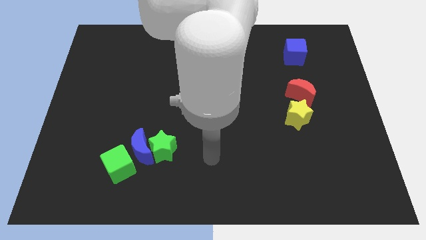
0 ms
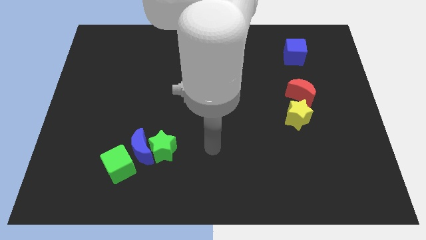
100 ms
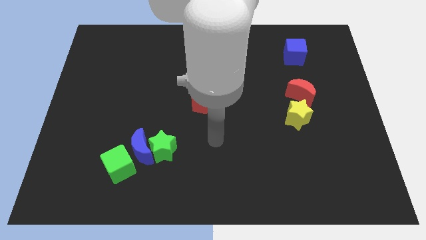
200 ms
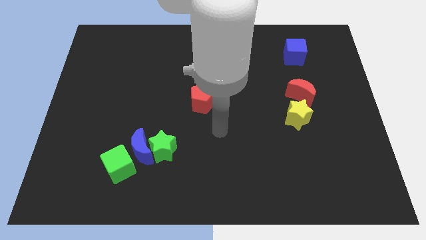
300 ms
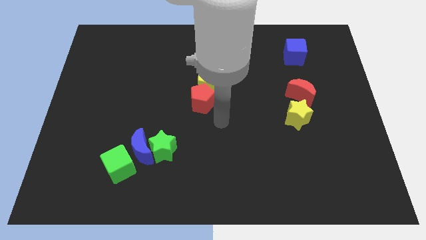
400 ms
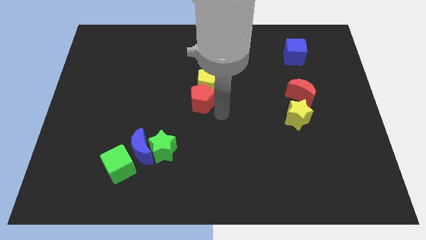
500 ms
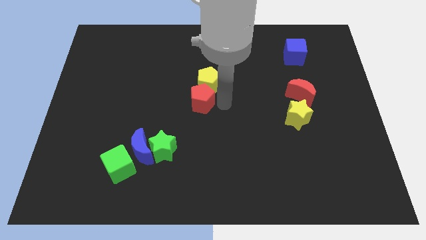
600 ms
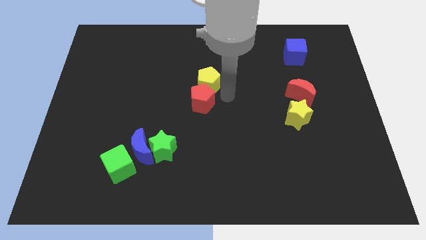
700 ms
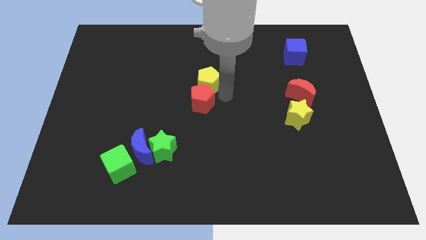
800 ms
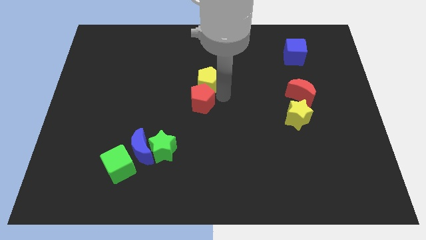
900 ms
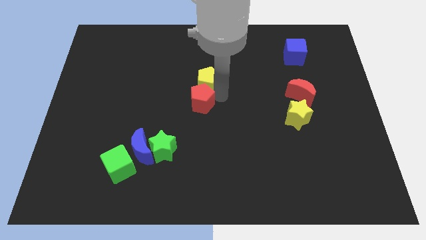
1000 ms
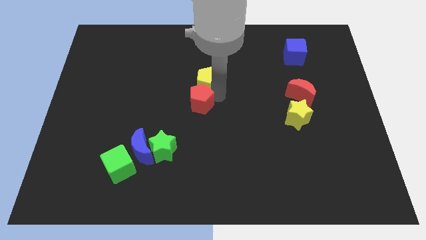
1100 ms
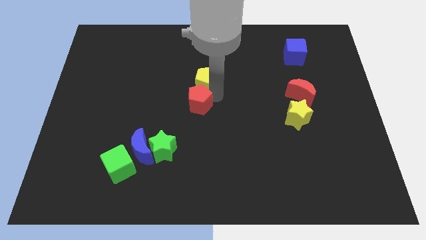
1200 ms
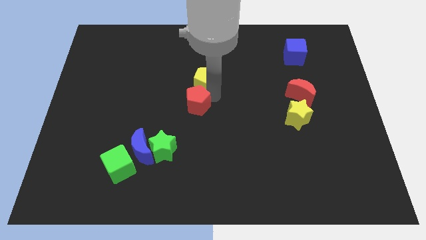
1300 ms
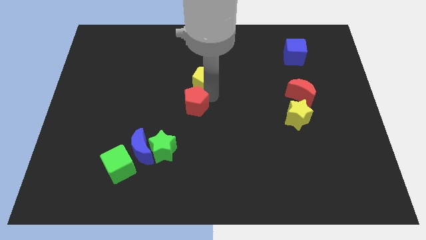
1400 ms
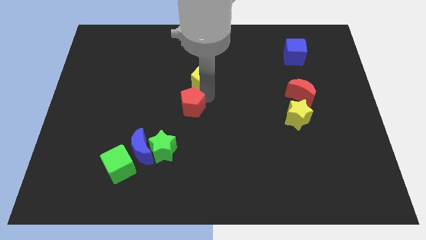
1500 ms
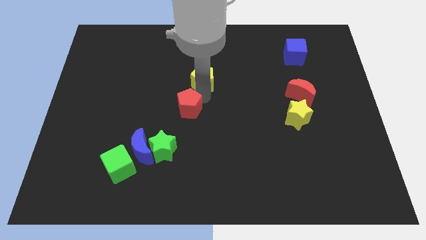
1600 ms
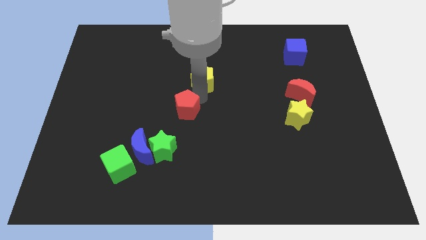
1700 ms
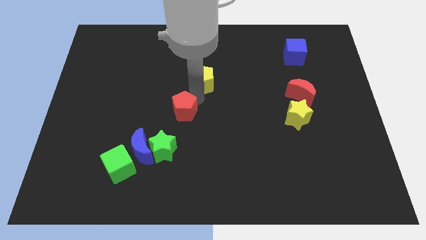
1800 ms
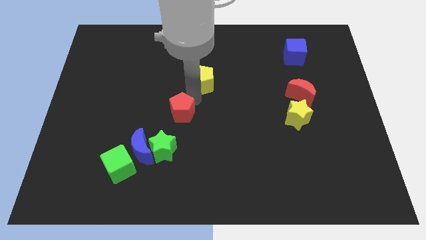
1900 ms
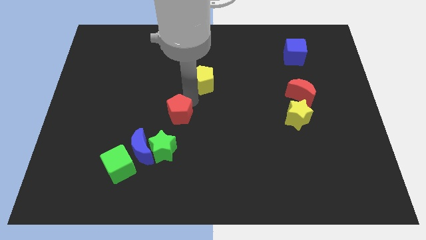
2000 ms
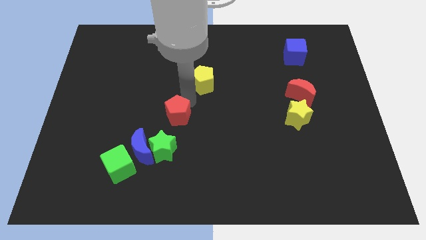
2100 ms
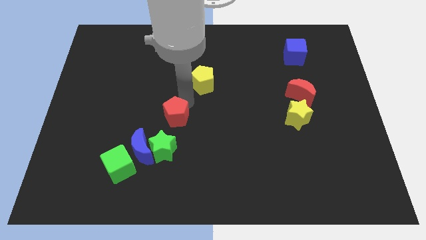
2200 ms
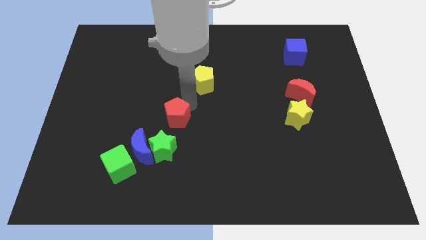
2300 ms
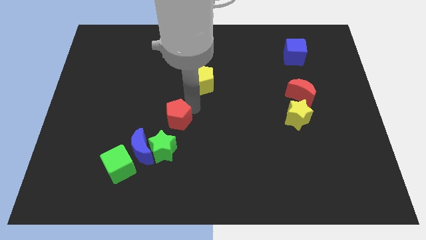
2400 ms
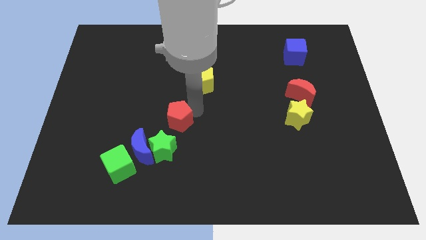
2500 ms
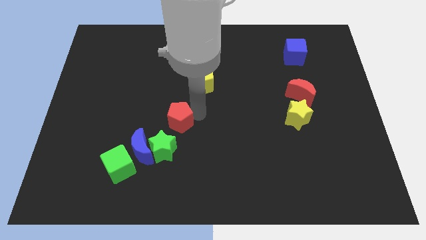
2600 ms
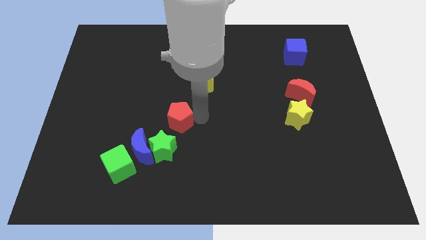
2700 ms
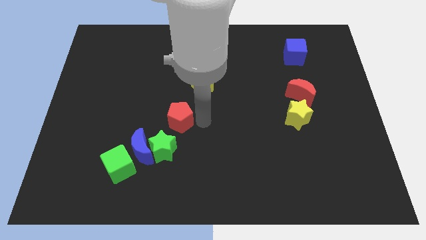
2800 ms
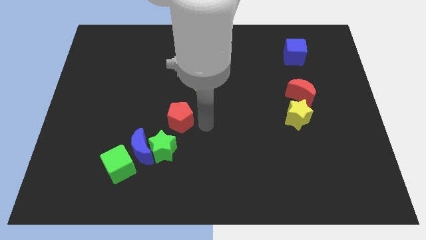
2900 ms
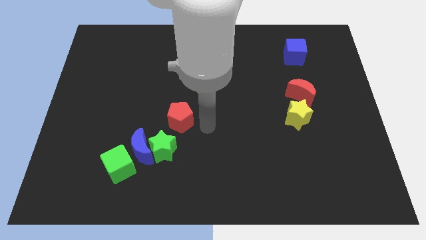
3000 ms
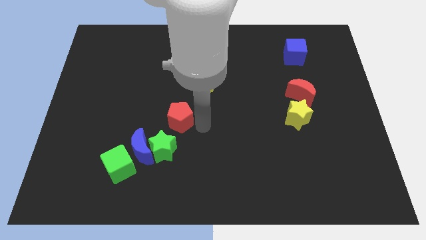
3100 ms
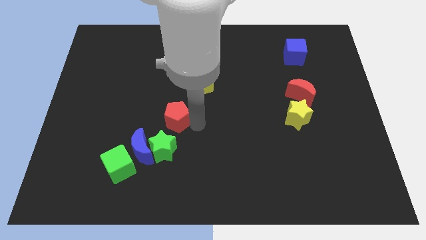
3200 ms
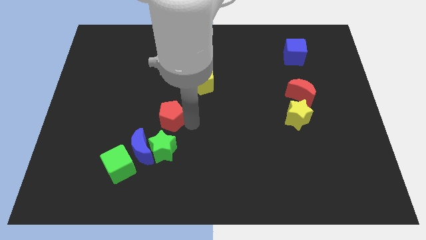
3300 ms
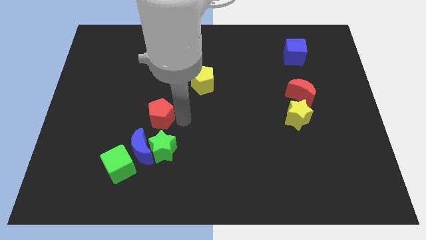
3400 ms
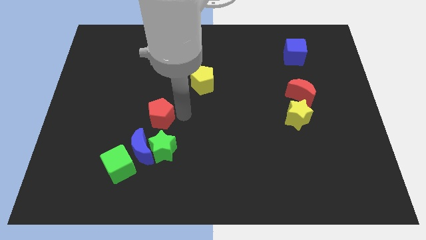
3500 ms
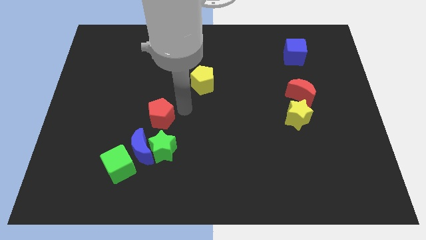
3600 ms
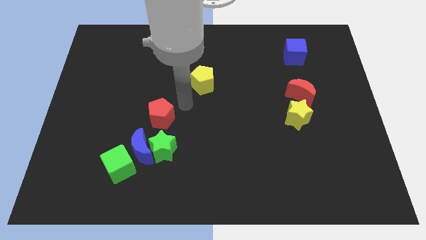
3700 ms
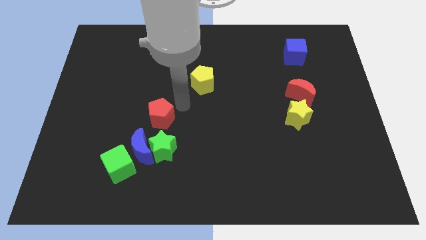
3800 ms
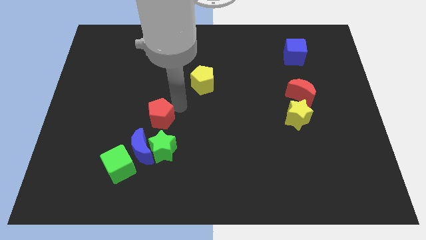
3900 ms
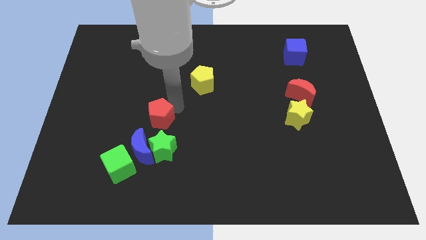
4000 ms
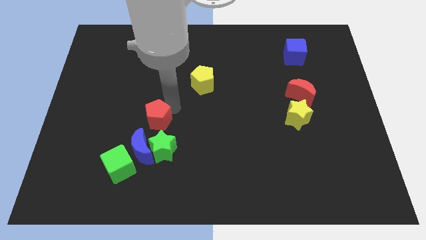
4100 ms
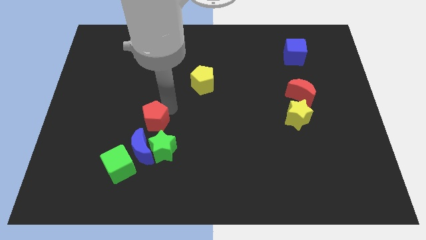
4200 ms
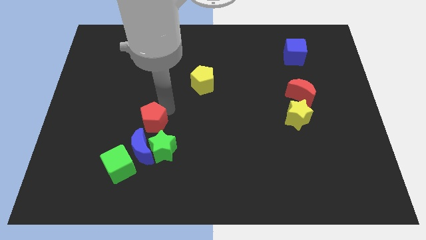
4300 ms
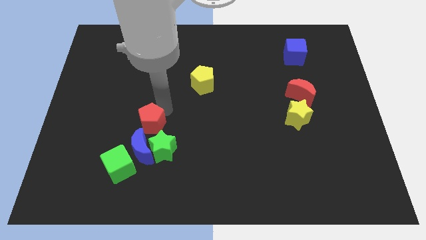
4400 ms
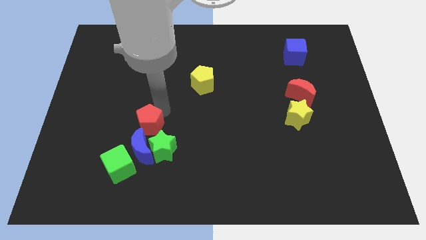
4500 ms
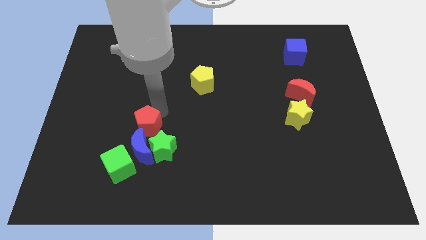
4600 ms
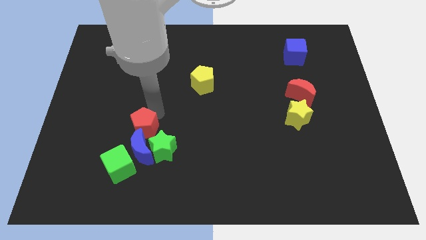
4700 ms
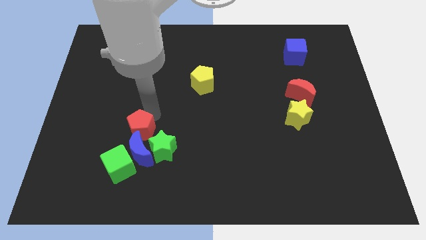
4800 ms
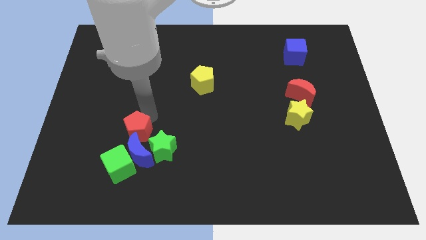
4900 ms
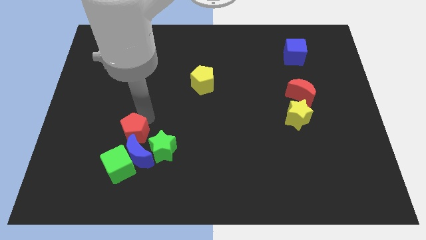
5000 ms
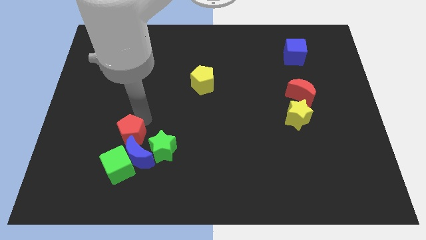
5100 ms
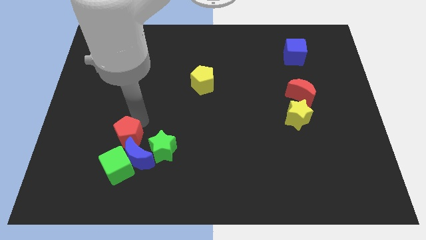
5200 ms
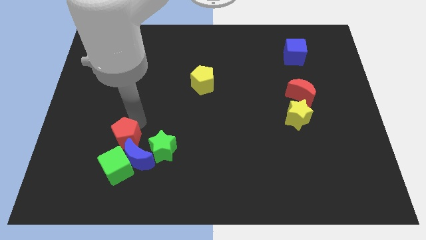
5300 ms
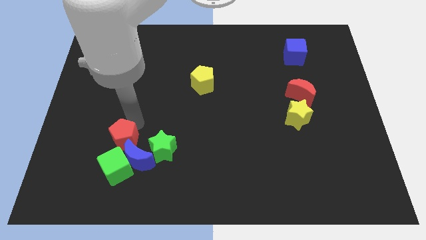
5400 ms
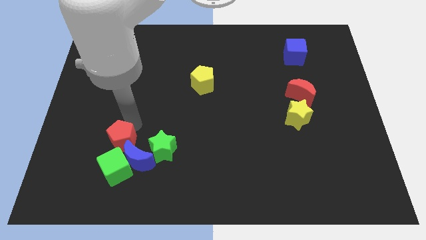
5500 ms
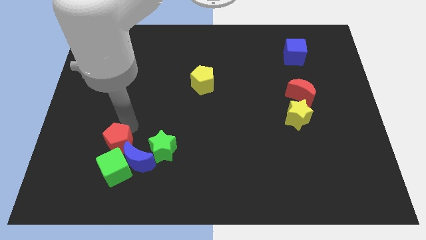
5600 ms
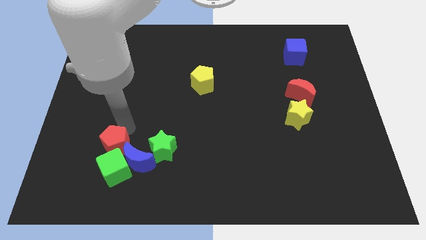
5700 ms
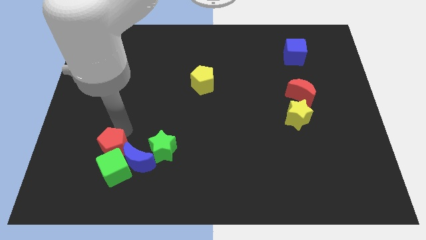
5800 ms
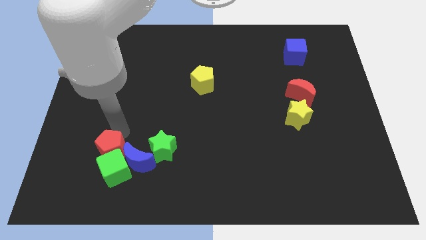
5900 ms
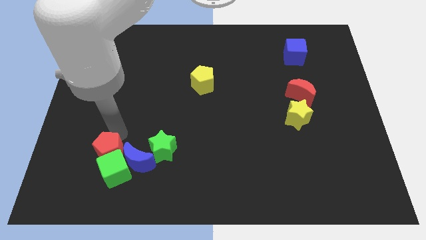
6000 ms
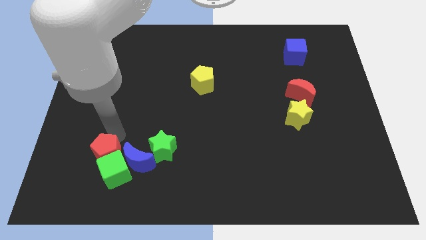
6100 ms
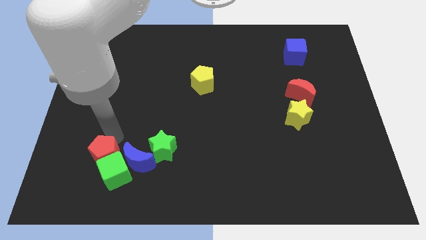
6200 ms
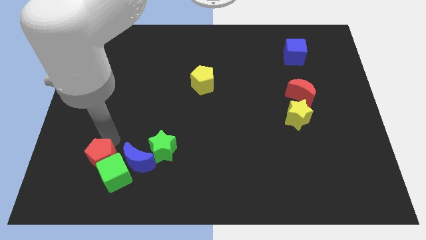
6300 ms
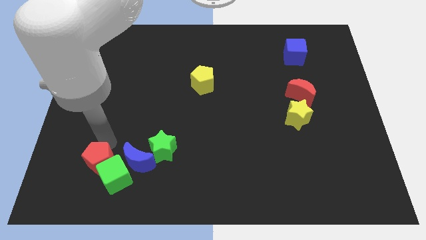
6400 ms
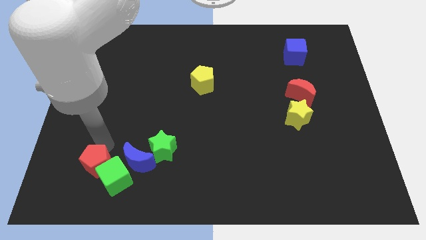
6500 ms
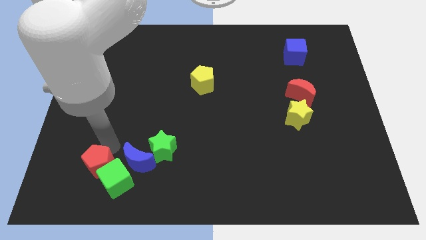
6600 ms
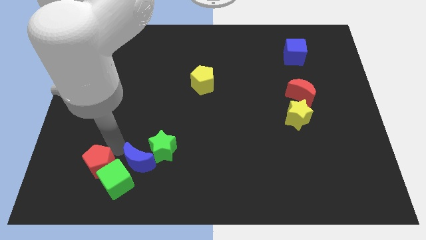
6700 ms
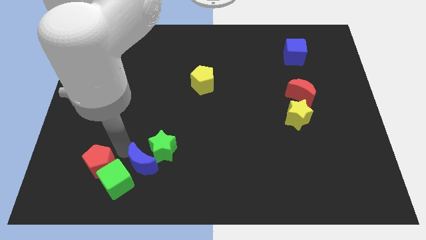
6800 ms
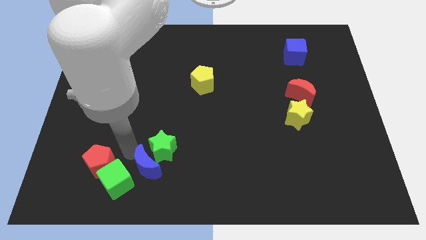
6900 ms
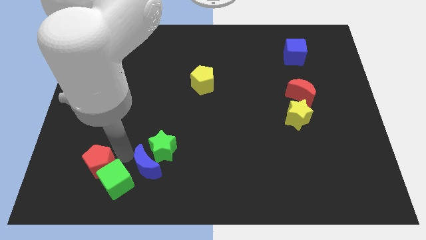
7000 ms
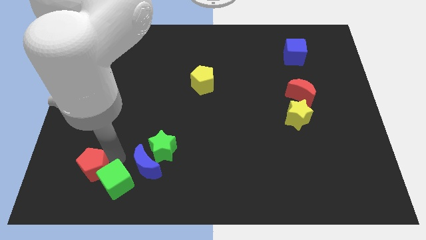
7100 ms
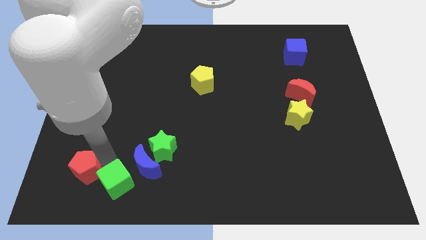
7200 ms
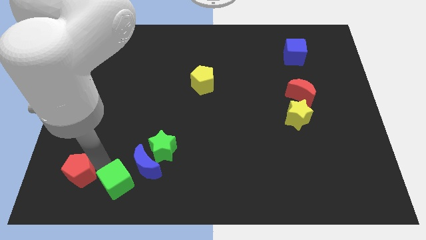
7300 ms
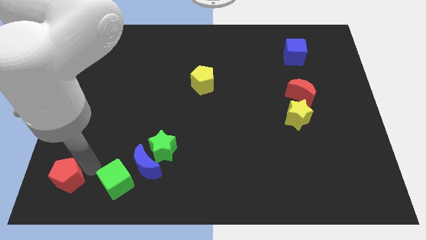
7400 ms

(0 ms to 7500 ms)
slide the red pentagon to the bottom left corner
